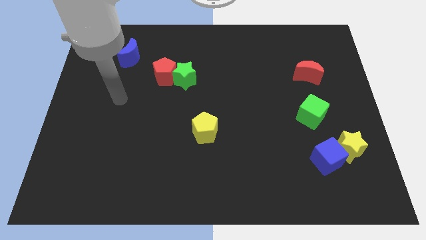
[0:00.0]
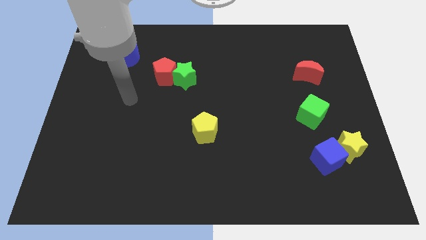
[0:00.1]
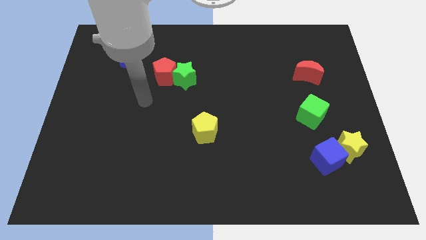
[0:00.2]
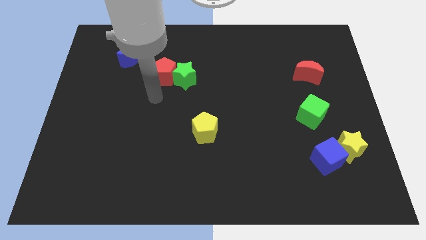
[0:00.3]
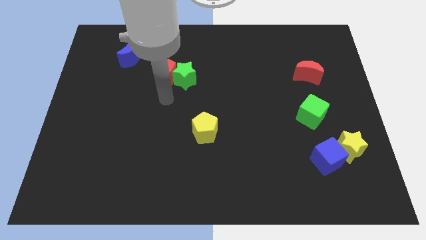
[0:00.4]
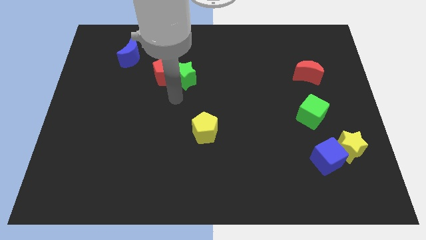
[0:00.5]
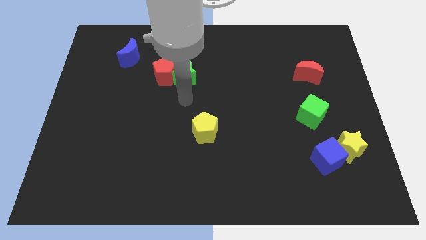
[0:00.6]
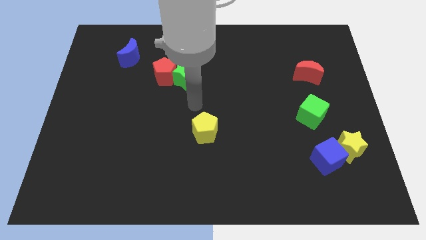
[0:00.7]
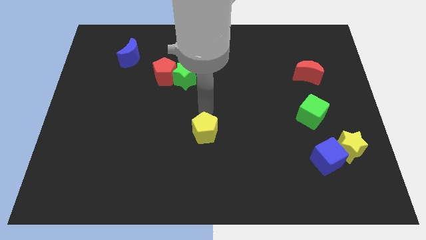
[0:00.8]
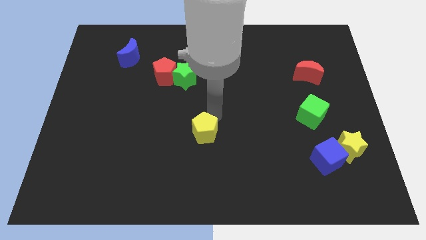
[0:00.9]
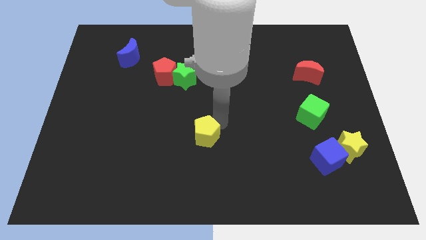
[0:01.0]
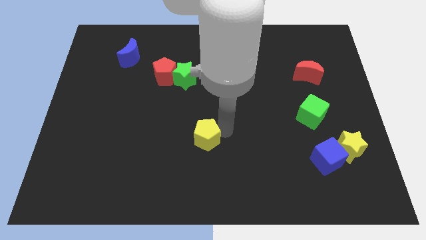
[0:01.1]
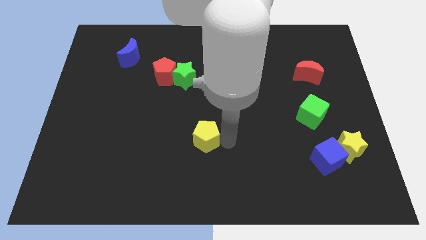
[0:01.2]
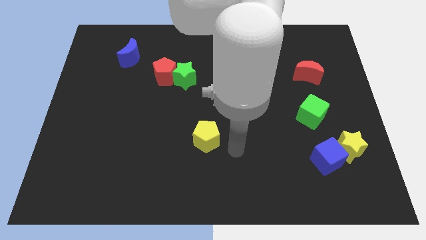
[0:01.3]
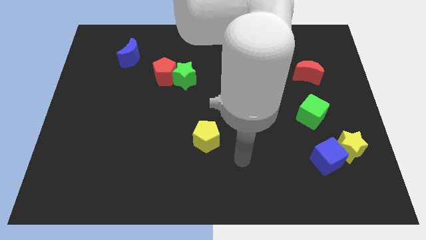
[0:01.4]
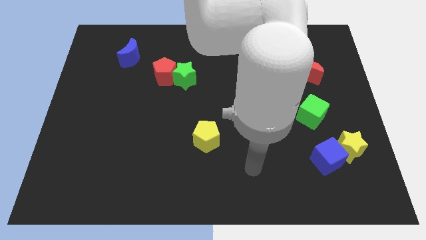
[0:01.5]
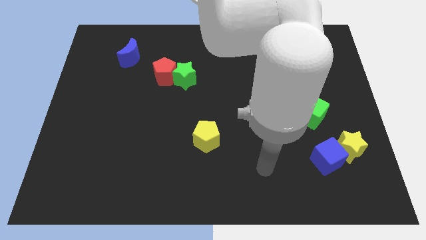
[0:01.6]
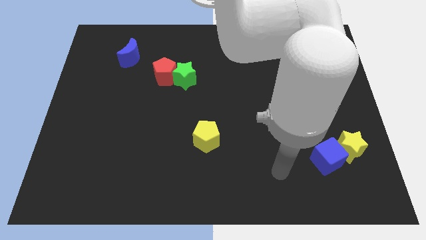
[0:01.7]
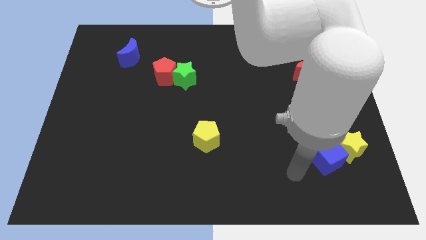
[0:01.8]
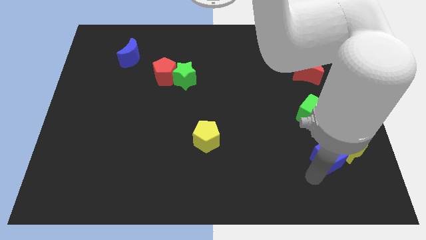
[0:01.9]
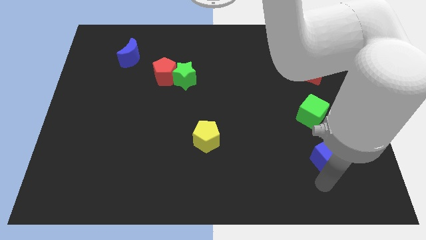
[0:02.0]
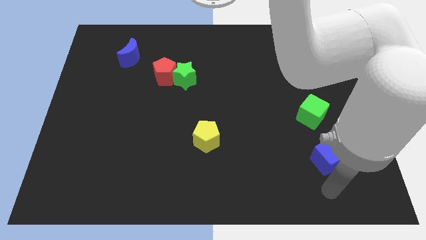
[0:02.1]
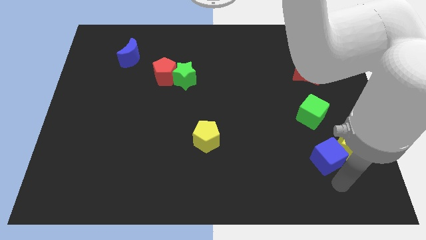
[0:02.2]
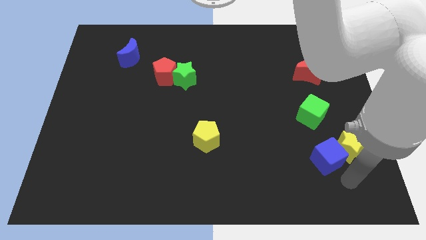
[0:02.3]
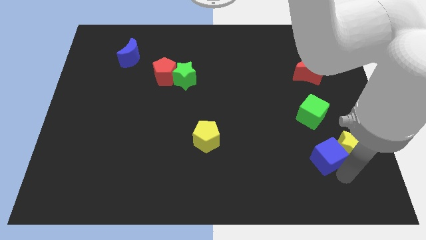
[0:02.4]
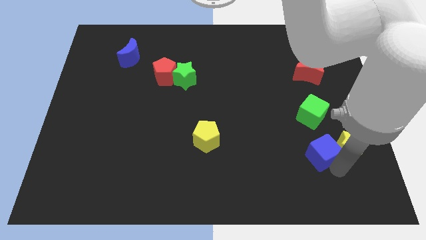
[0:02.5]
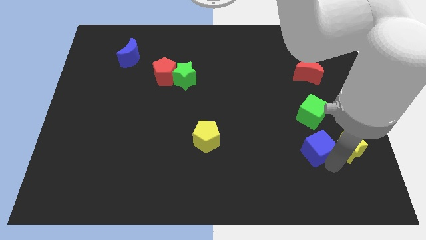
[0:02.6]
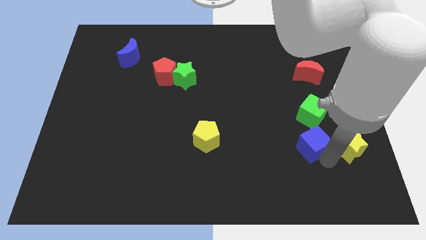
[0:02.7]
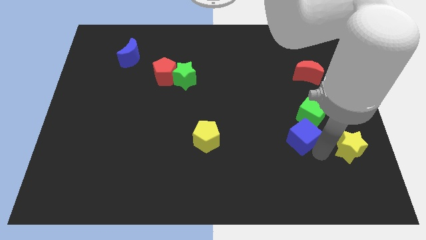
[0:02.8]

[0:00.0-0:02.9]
slide the blue cube upwards and then left somewhat

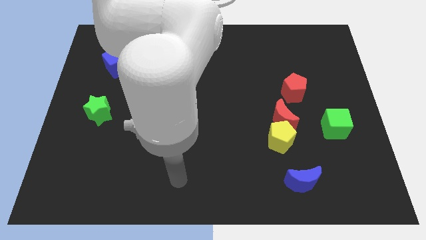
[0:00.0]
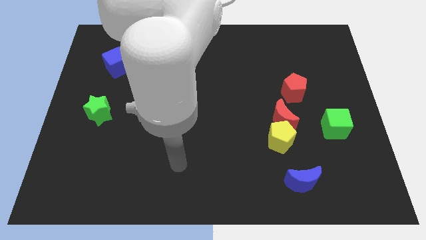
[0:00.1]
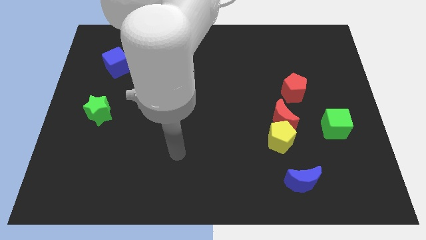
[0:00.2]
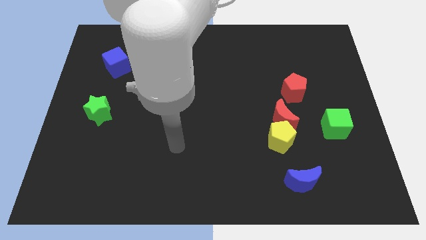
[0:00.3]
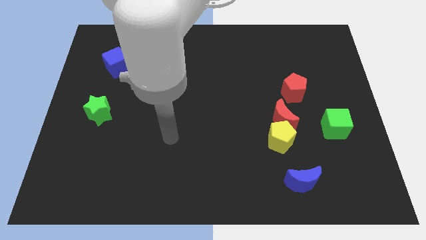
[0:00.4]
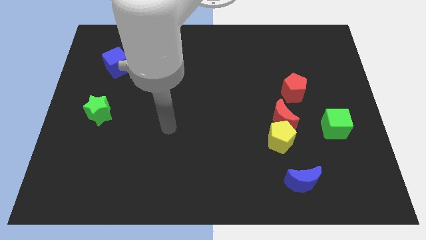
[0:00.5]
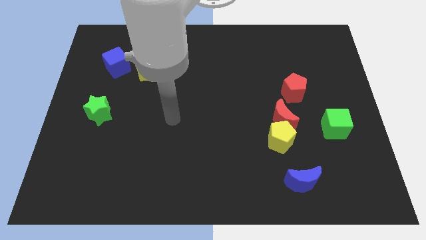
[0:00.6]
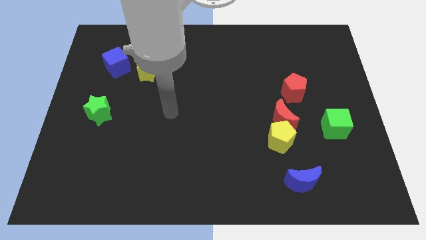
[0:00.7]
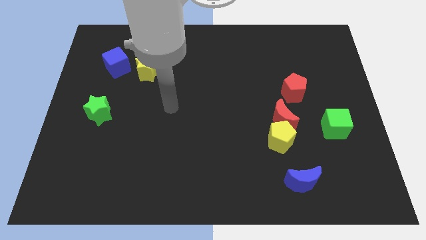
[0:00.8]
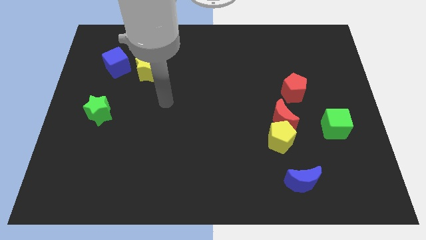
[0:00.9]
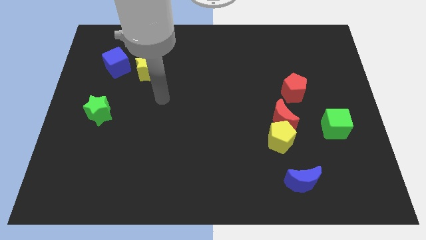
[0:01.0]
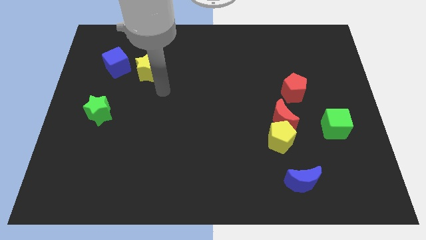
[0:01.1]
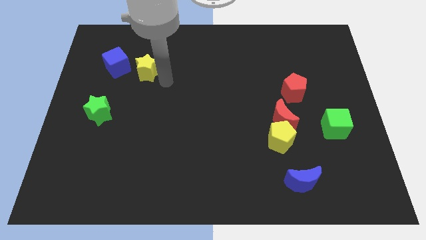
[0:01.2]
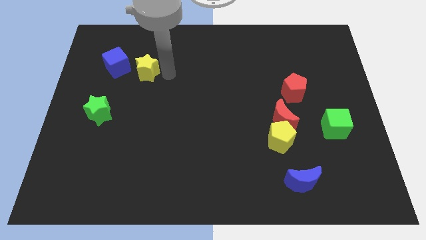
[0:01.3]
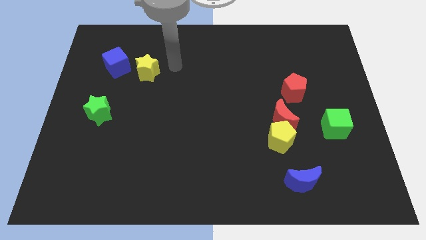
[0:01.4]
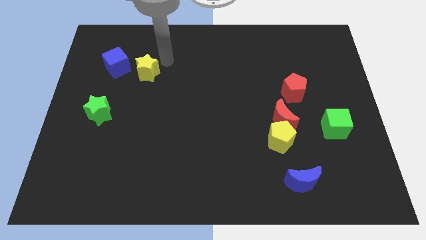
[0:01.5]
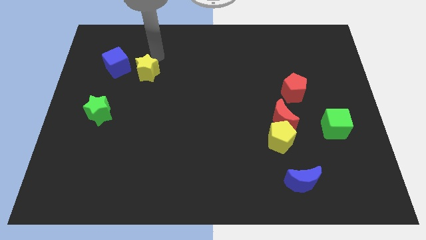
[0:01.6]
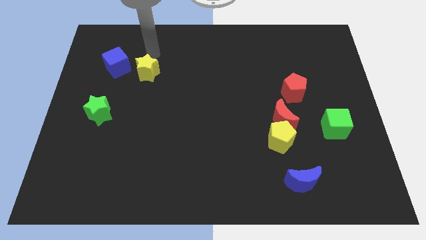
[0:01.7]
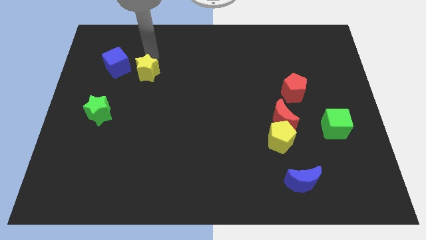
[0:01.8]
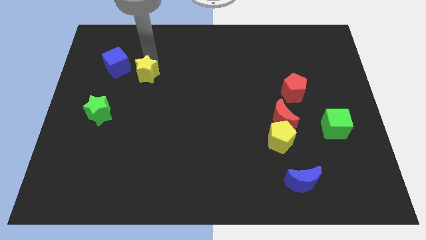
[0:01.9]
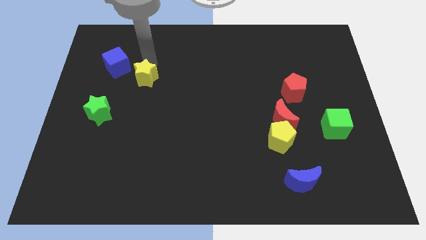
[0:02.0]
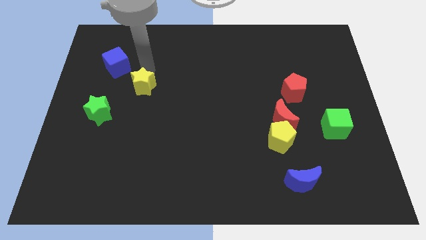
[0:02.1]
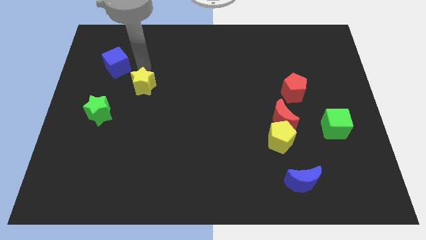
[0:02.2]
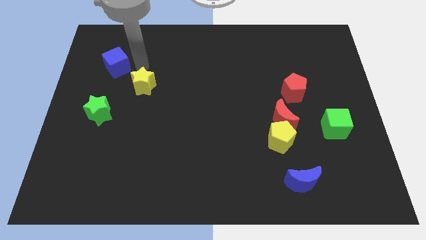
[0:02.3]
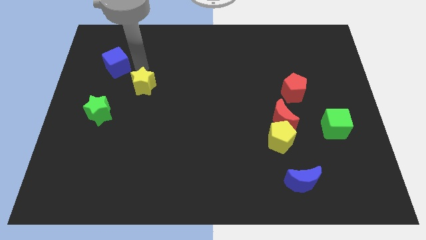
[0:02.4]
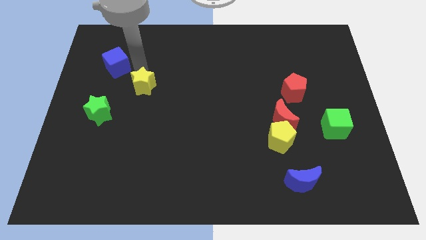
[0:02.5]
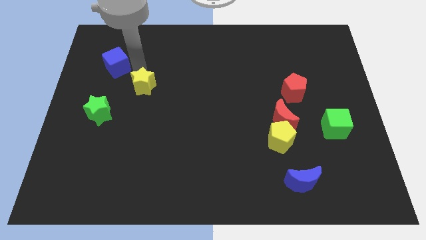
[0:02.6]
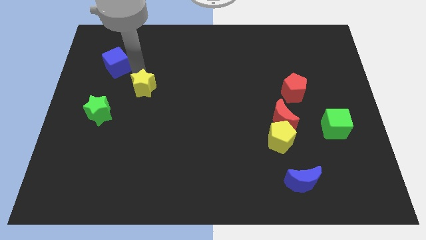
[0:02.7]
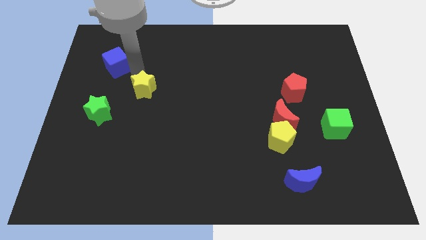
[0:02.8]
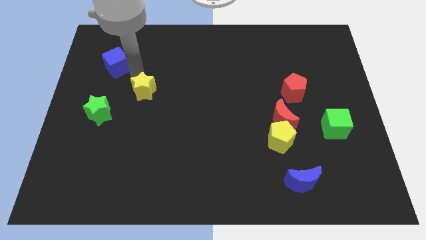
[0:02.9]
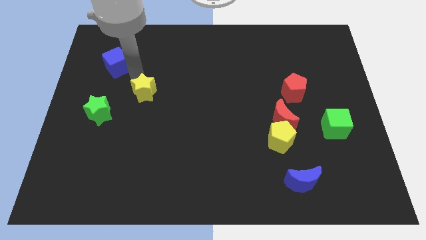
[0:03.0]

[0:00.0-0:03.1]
slightly push the yellow star downwards

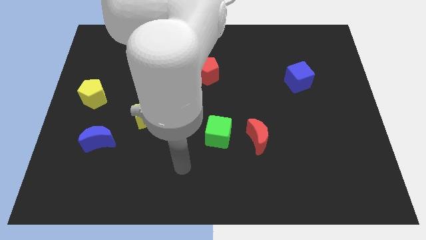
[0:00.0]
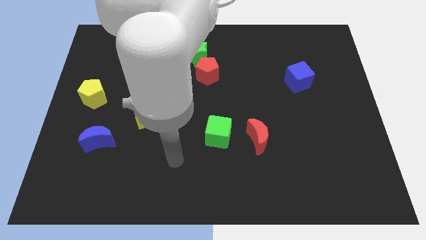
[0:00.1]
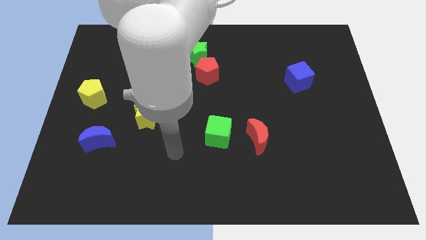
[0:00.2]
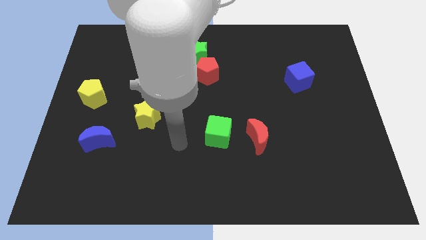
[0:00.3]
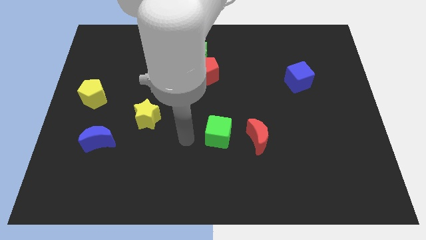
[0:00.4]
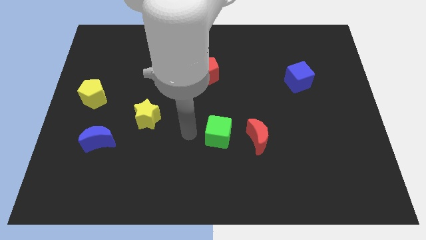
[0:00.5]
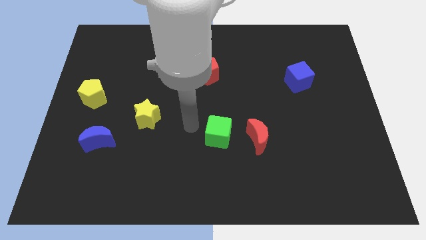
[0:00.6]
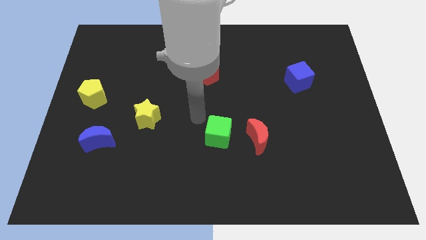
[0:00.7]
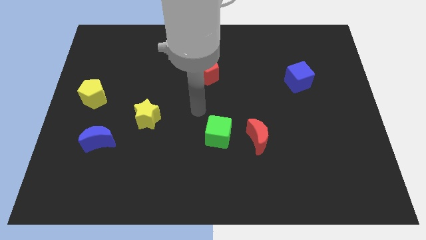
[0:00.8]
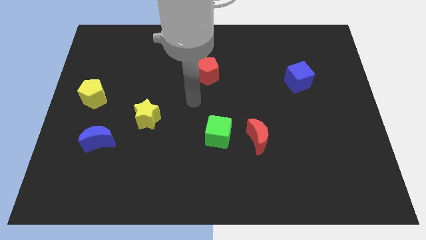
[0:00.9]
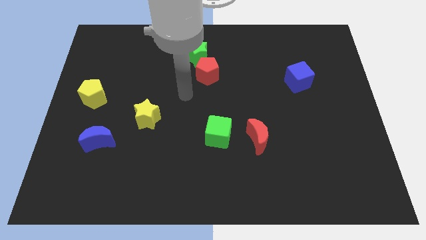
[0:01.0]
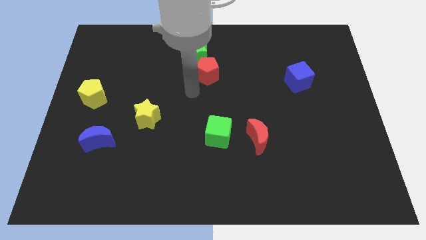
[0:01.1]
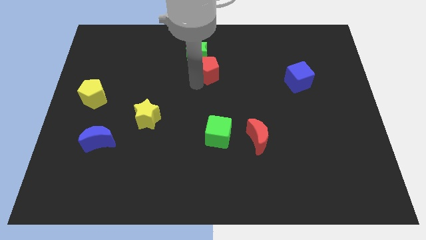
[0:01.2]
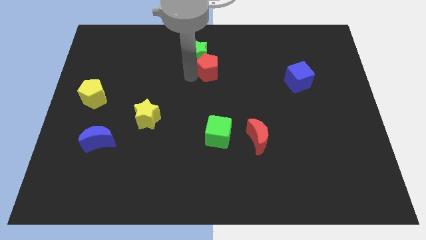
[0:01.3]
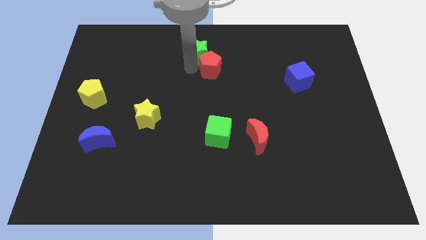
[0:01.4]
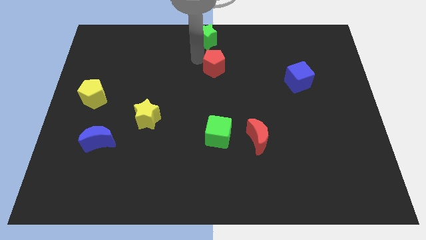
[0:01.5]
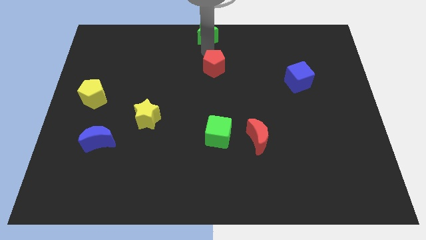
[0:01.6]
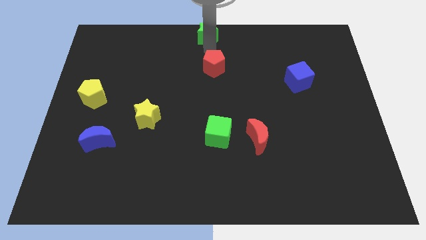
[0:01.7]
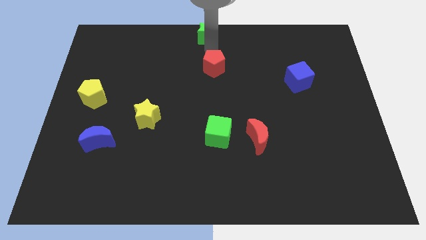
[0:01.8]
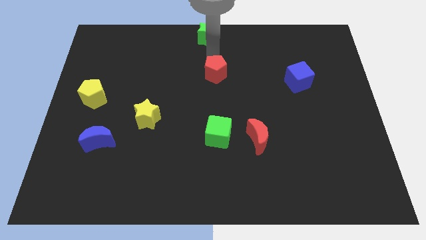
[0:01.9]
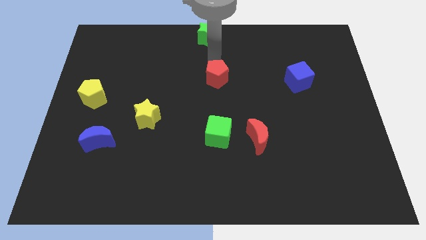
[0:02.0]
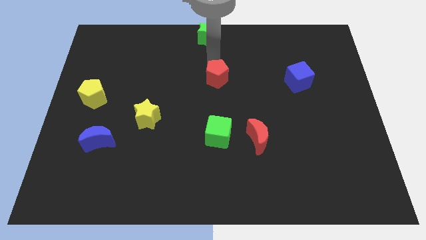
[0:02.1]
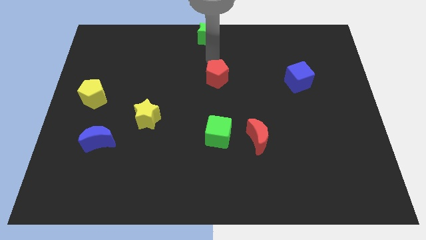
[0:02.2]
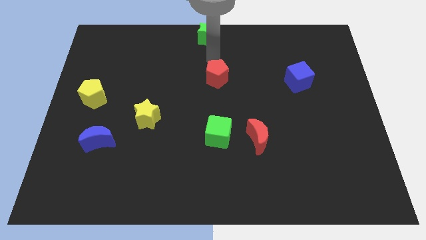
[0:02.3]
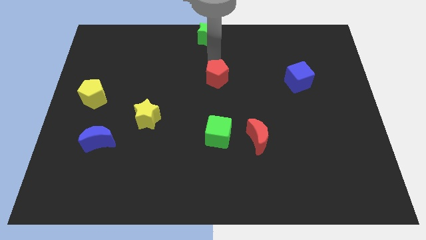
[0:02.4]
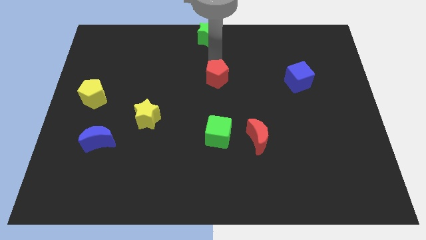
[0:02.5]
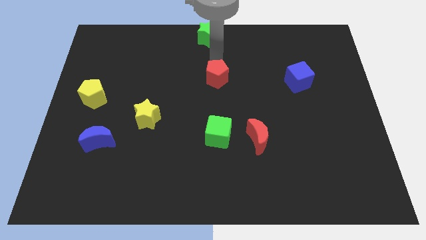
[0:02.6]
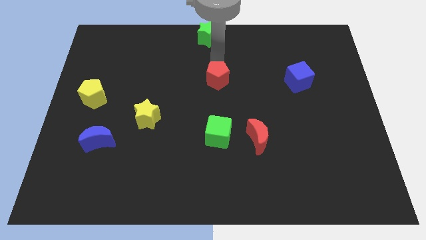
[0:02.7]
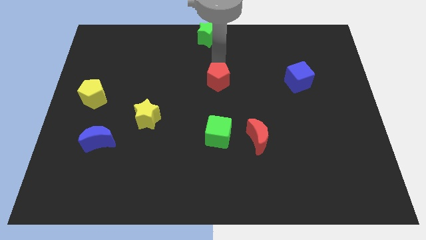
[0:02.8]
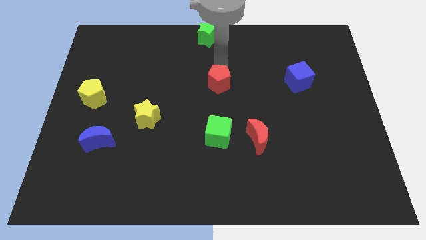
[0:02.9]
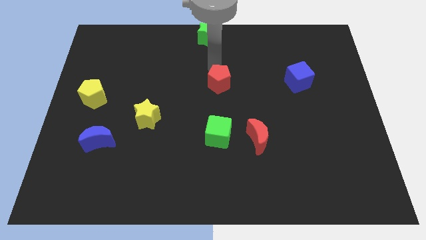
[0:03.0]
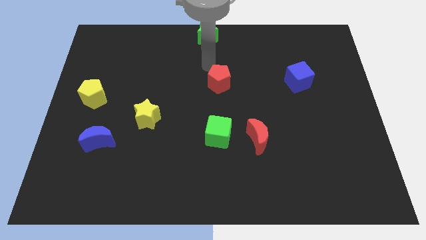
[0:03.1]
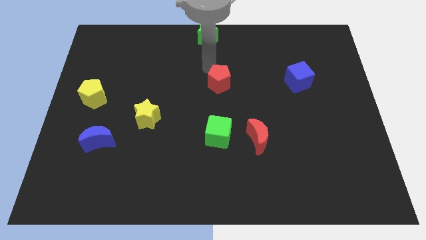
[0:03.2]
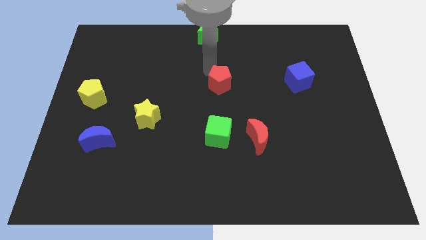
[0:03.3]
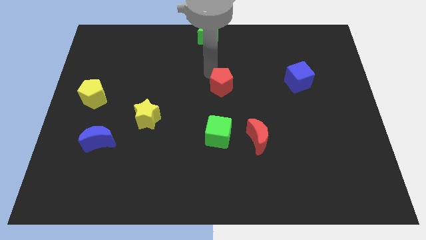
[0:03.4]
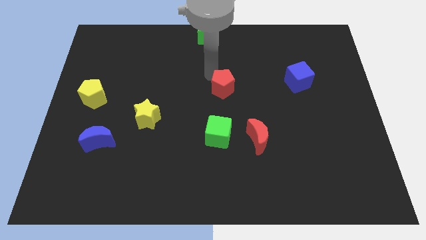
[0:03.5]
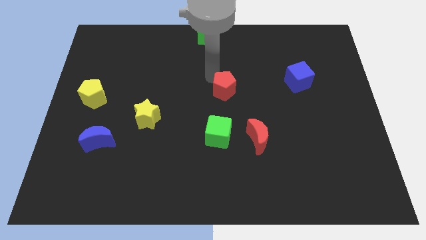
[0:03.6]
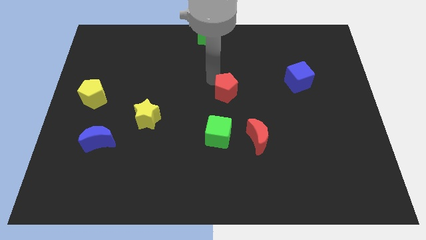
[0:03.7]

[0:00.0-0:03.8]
slightly slide the red pentagon down and right
